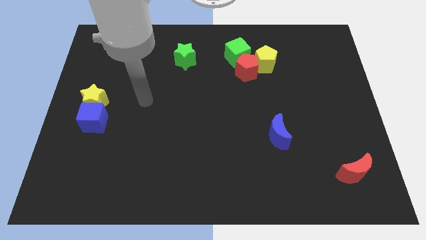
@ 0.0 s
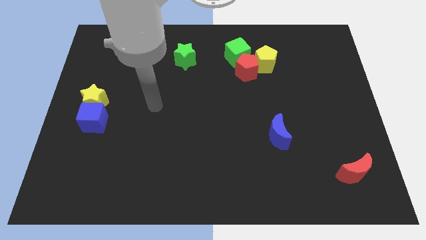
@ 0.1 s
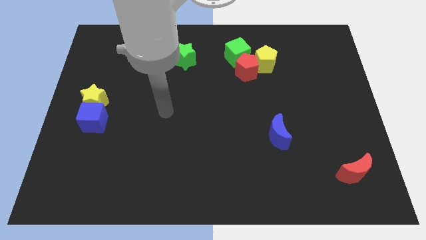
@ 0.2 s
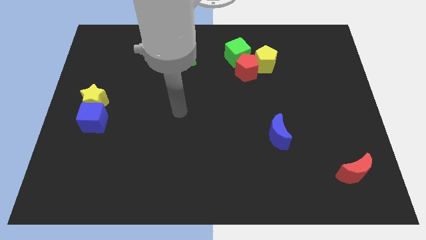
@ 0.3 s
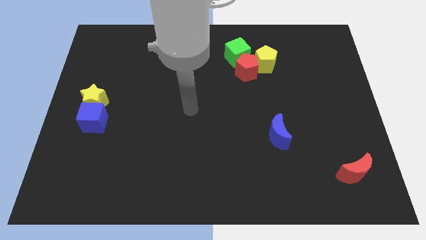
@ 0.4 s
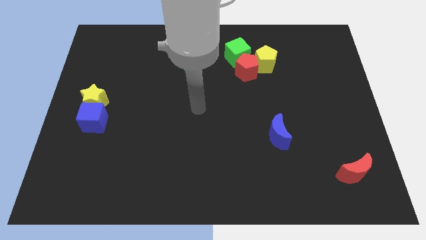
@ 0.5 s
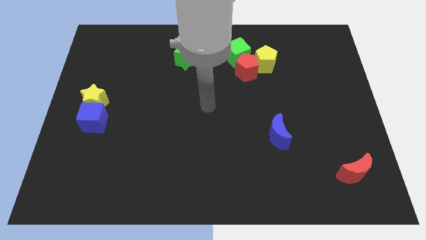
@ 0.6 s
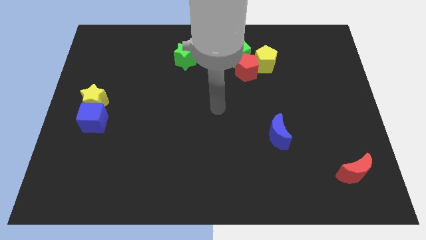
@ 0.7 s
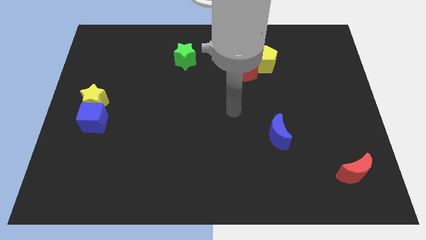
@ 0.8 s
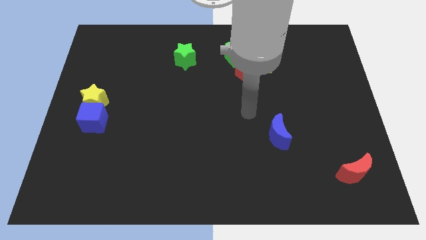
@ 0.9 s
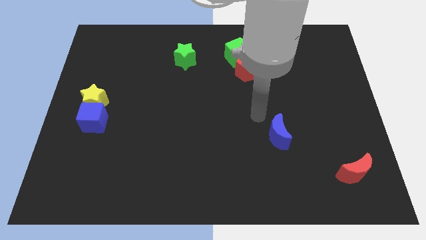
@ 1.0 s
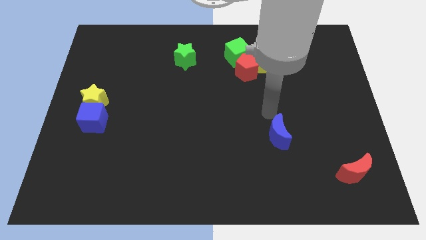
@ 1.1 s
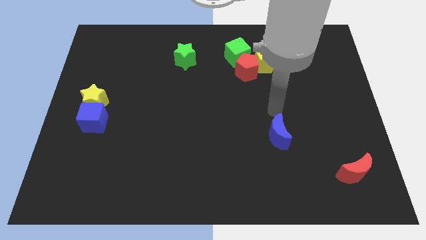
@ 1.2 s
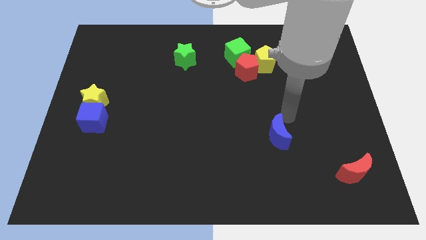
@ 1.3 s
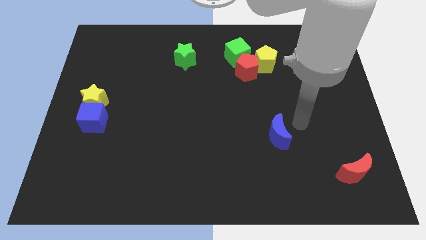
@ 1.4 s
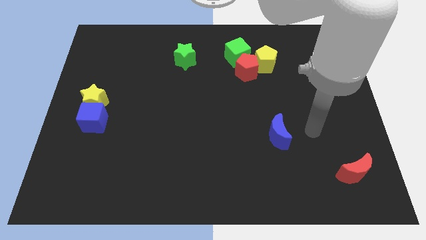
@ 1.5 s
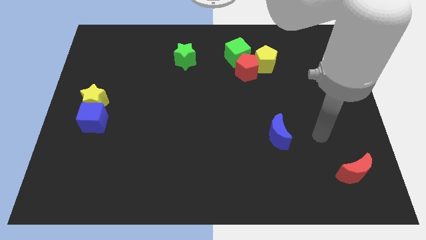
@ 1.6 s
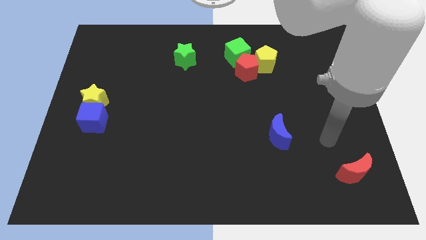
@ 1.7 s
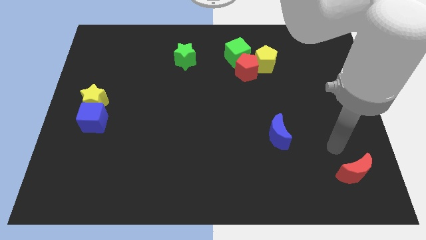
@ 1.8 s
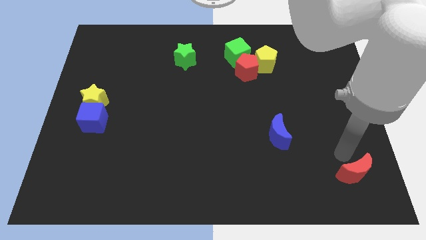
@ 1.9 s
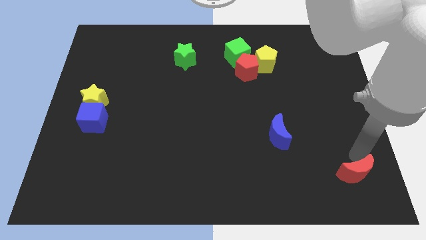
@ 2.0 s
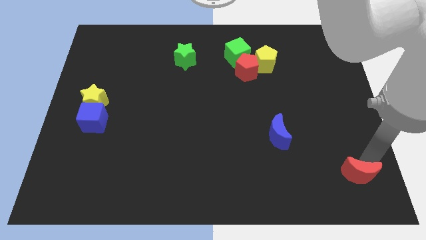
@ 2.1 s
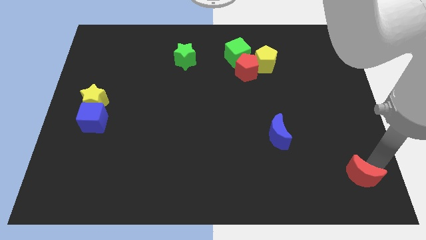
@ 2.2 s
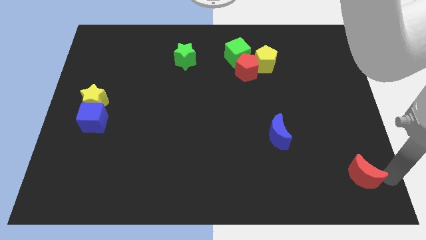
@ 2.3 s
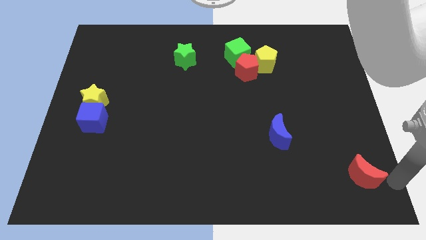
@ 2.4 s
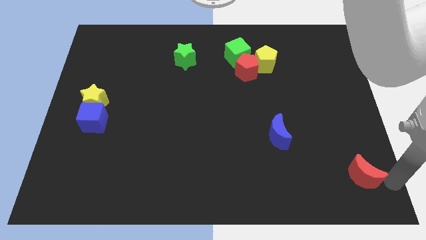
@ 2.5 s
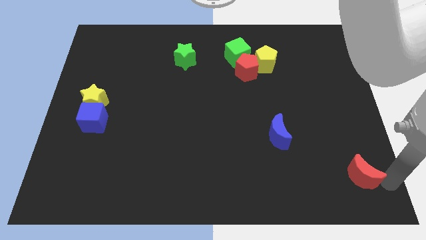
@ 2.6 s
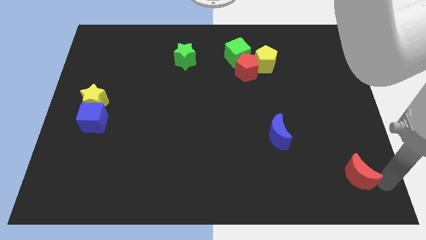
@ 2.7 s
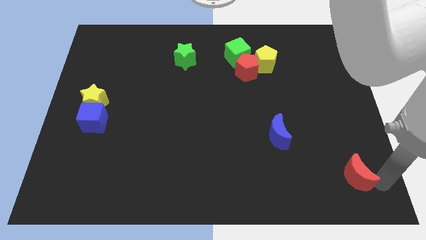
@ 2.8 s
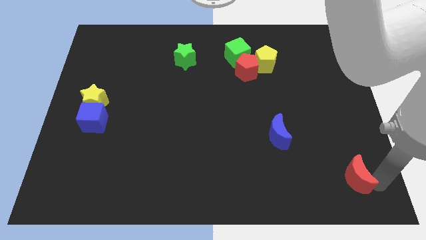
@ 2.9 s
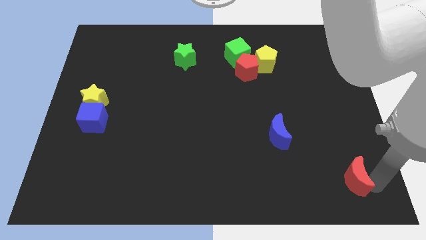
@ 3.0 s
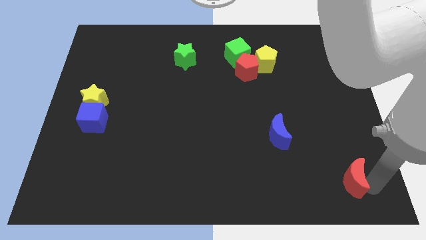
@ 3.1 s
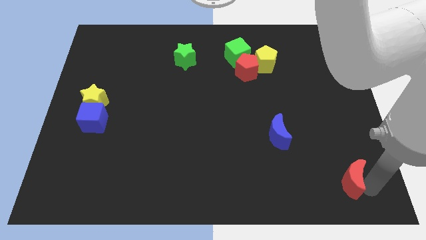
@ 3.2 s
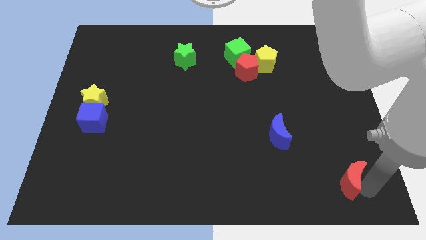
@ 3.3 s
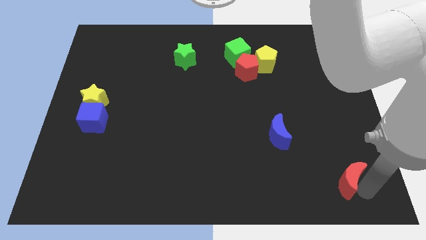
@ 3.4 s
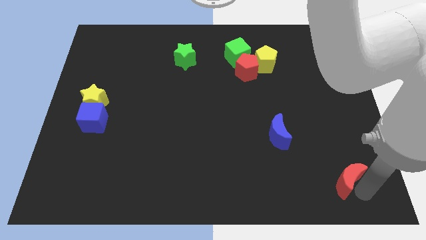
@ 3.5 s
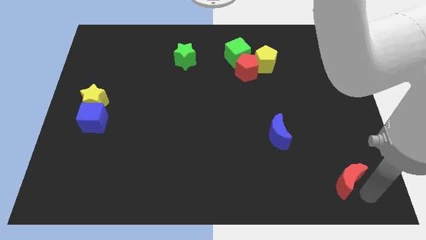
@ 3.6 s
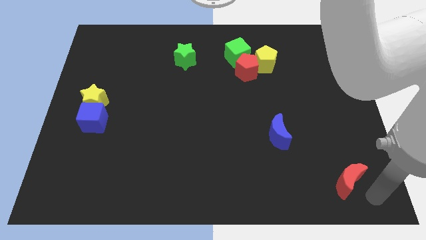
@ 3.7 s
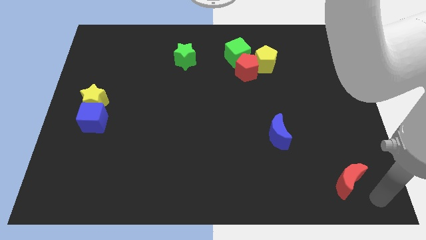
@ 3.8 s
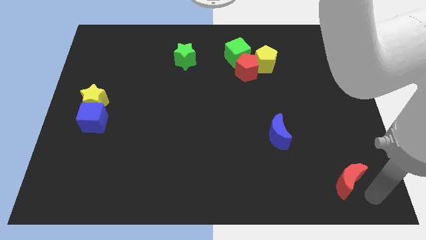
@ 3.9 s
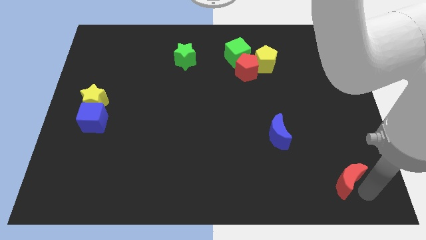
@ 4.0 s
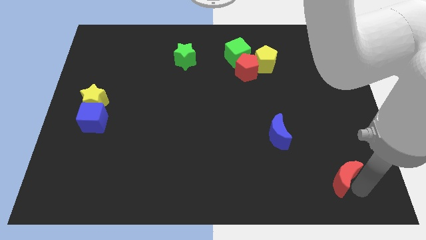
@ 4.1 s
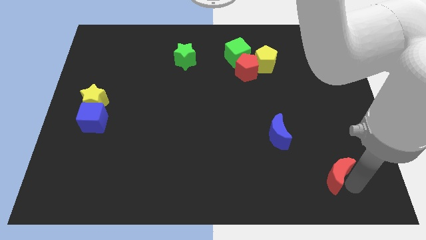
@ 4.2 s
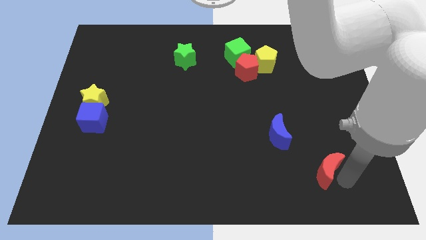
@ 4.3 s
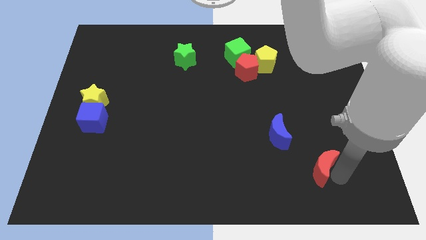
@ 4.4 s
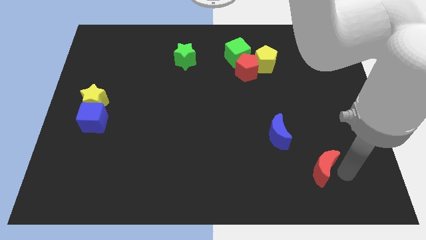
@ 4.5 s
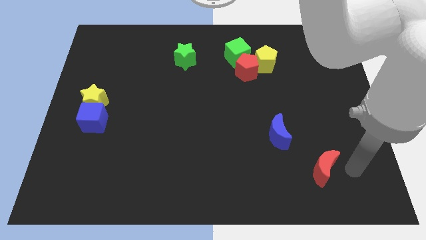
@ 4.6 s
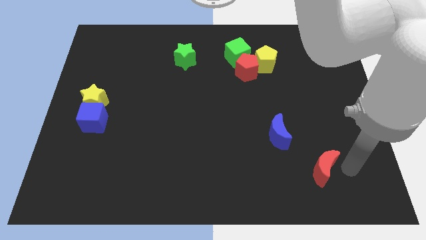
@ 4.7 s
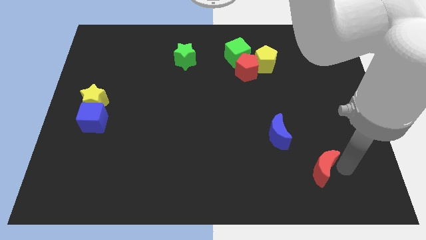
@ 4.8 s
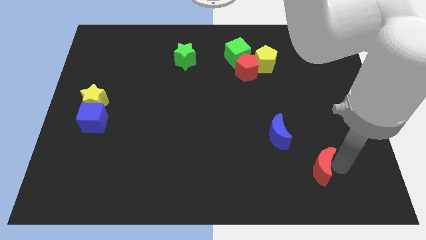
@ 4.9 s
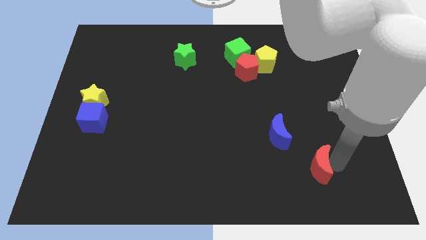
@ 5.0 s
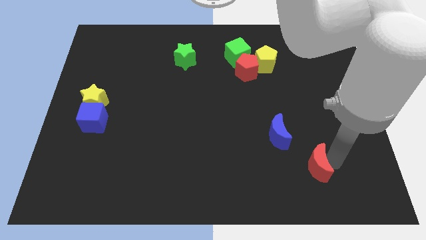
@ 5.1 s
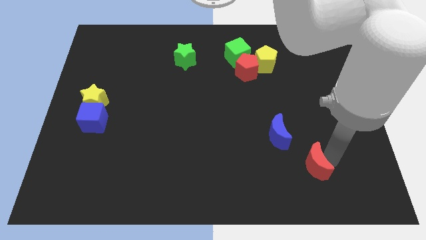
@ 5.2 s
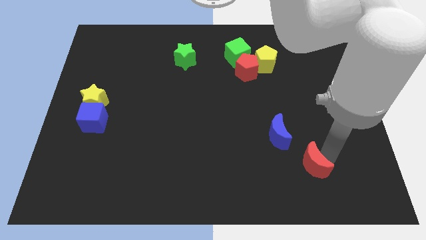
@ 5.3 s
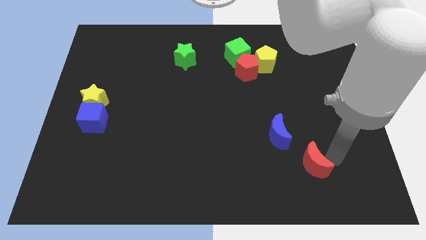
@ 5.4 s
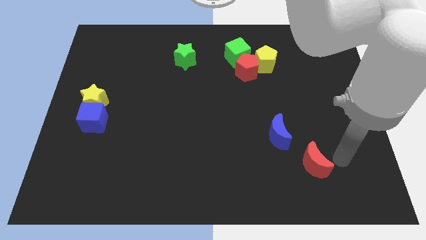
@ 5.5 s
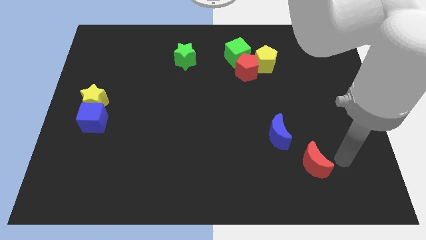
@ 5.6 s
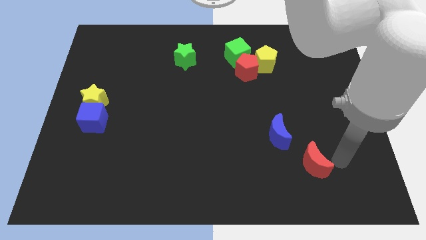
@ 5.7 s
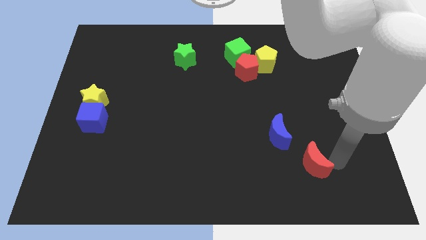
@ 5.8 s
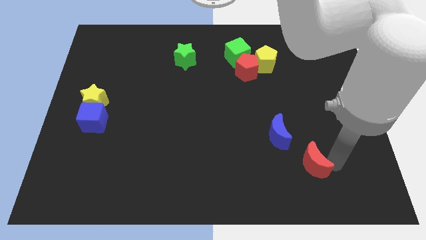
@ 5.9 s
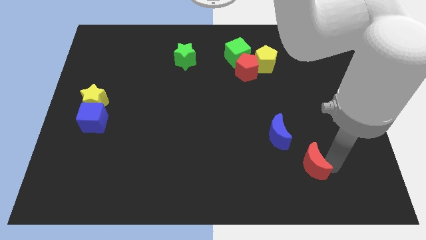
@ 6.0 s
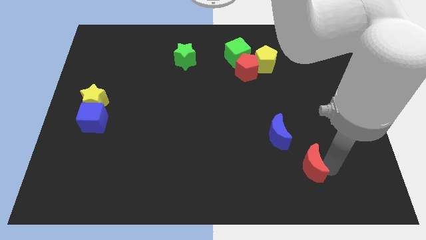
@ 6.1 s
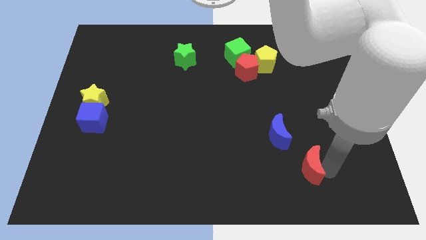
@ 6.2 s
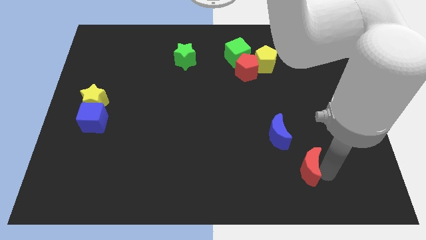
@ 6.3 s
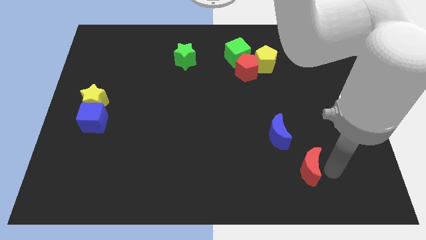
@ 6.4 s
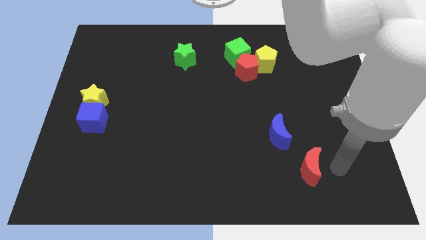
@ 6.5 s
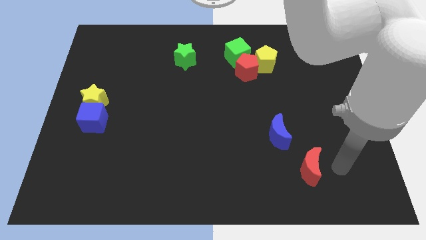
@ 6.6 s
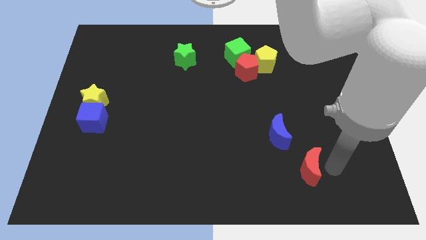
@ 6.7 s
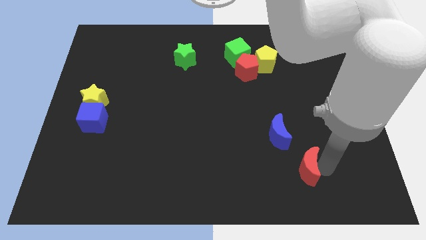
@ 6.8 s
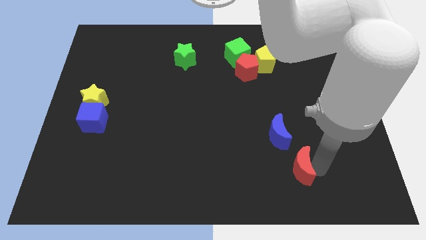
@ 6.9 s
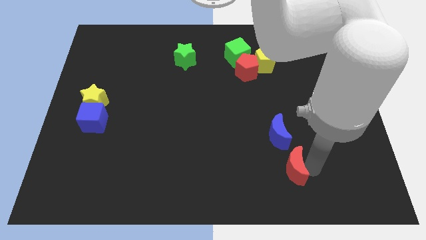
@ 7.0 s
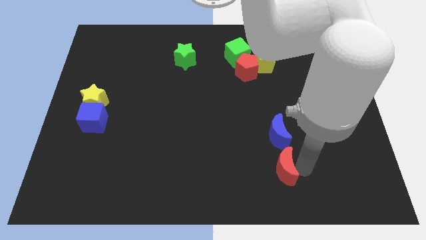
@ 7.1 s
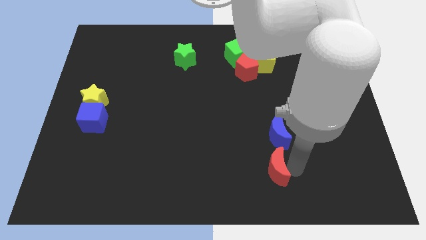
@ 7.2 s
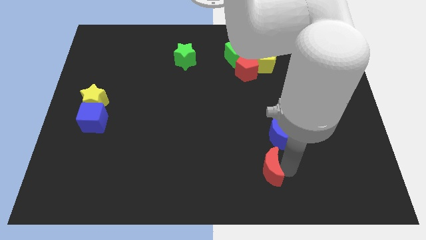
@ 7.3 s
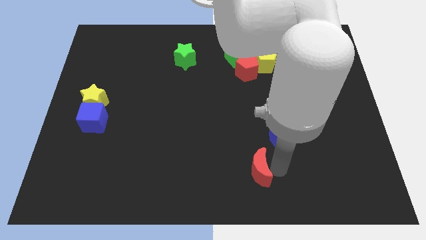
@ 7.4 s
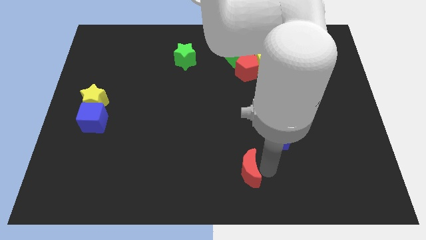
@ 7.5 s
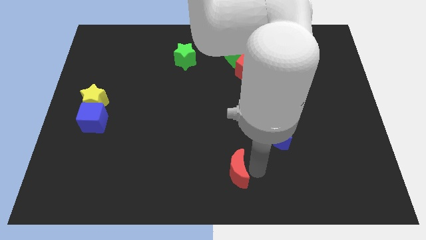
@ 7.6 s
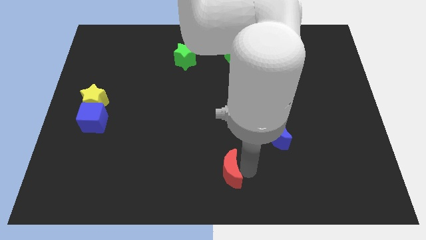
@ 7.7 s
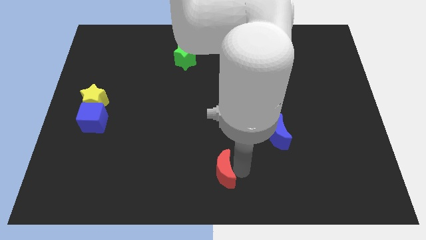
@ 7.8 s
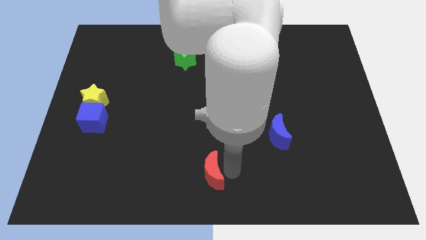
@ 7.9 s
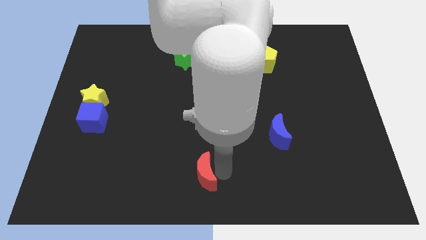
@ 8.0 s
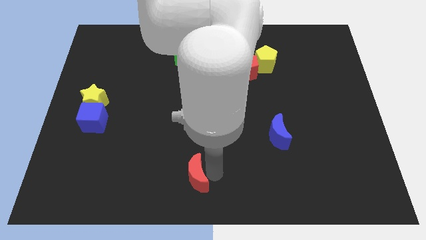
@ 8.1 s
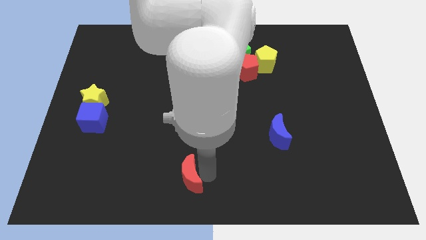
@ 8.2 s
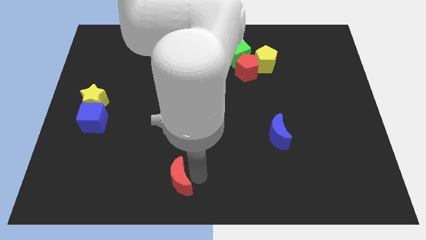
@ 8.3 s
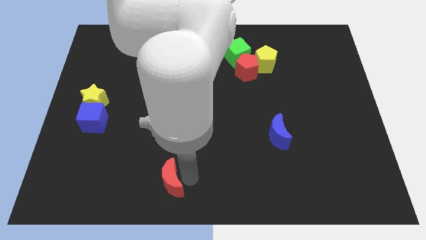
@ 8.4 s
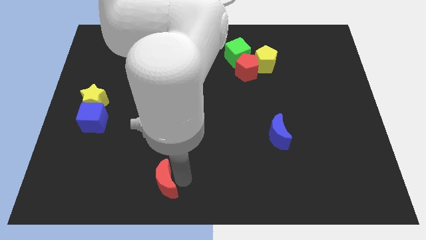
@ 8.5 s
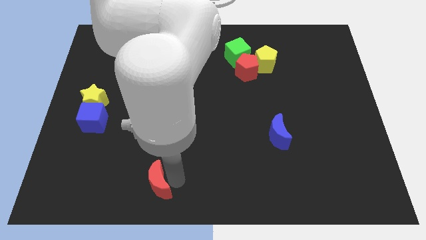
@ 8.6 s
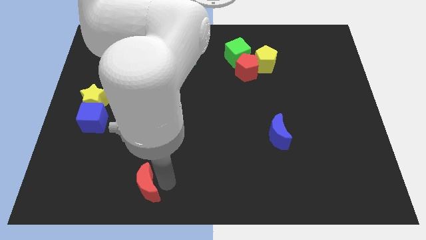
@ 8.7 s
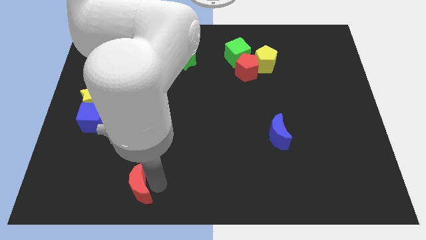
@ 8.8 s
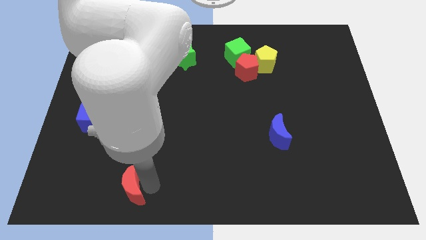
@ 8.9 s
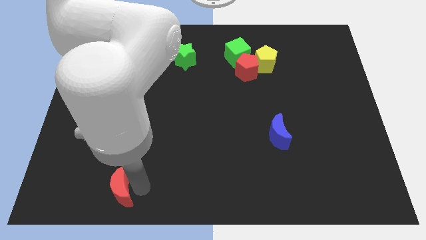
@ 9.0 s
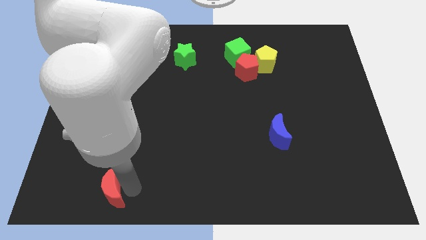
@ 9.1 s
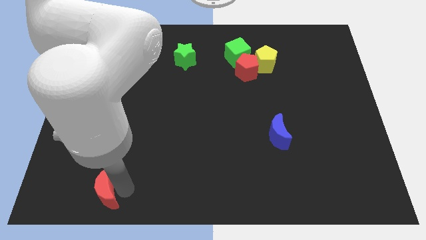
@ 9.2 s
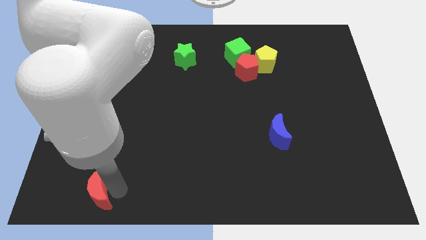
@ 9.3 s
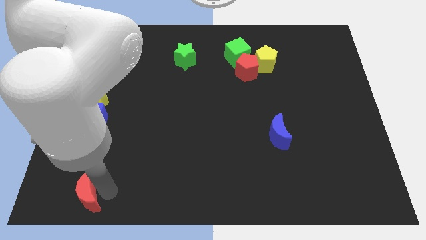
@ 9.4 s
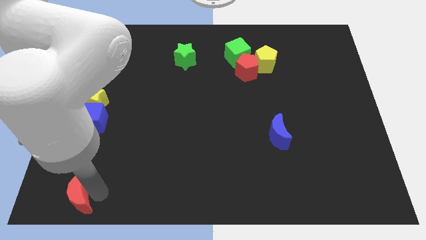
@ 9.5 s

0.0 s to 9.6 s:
move the red moon to the bottom left
